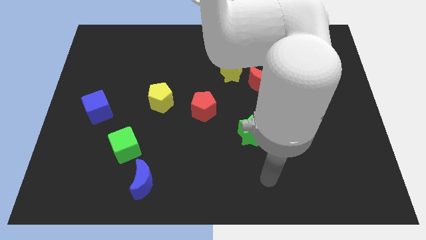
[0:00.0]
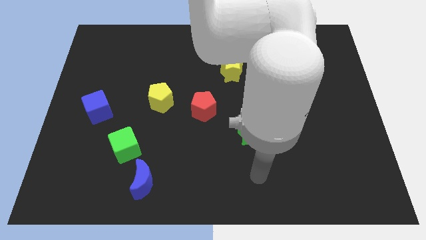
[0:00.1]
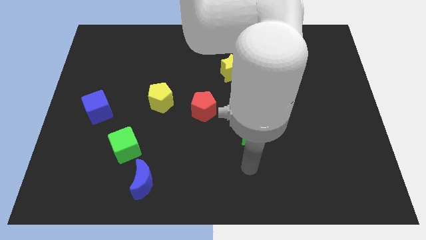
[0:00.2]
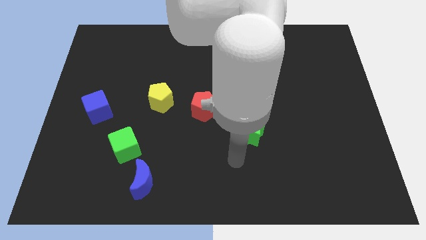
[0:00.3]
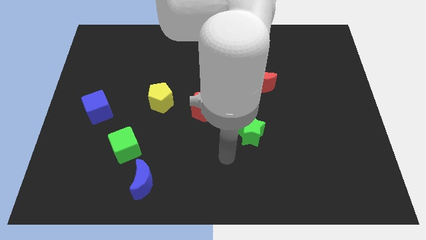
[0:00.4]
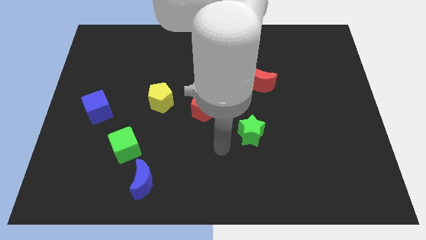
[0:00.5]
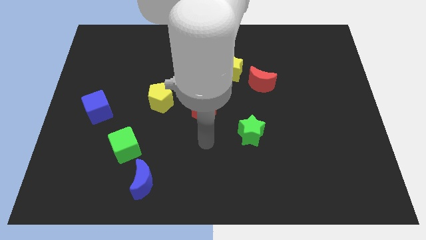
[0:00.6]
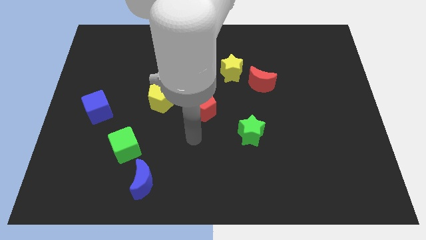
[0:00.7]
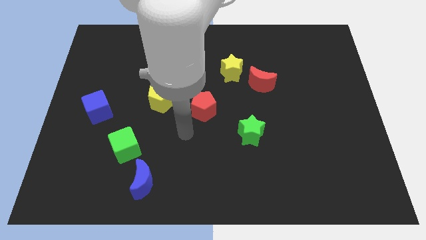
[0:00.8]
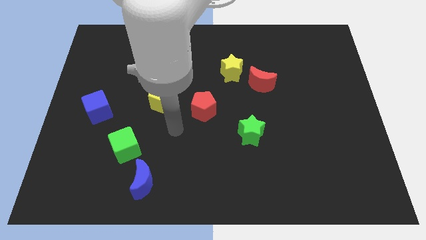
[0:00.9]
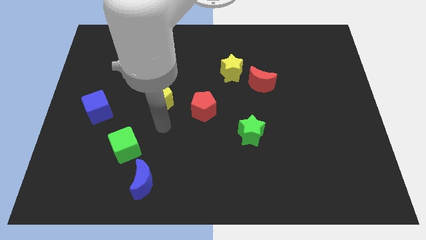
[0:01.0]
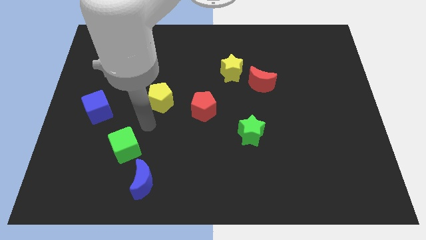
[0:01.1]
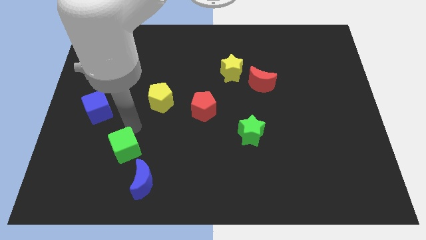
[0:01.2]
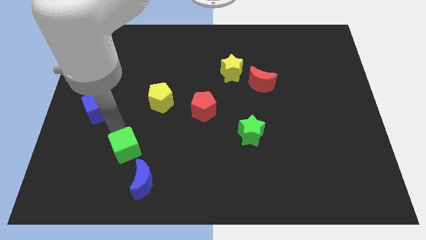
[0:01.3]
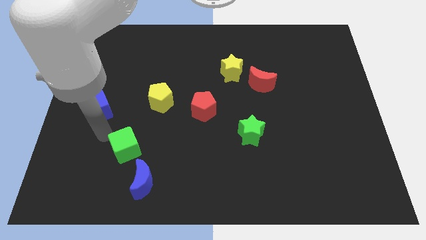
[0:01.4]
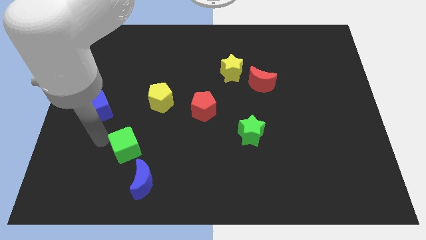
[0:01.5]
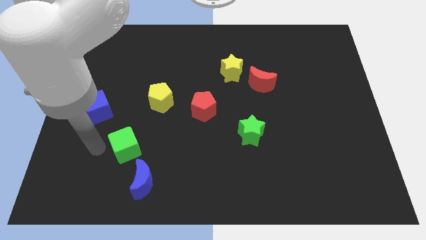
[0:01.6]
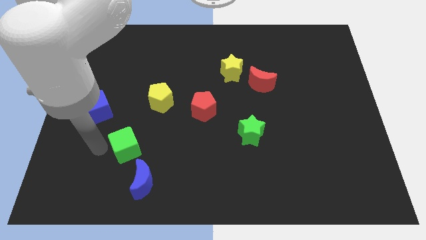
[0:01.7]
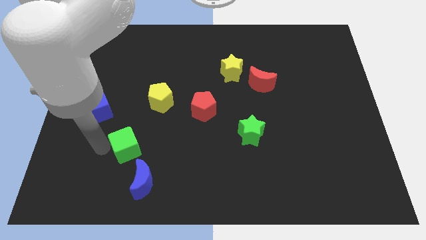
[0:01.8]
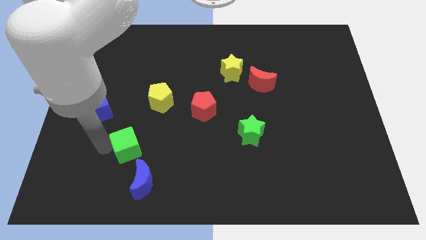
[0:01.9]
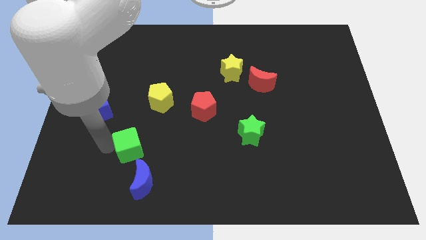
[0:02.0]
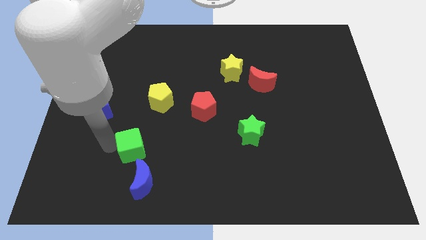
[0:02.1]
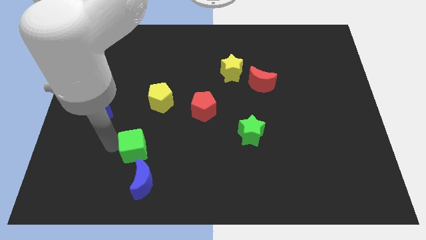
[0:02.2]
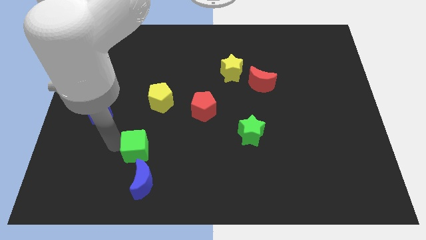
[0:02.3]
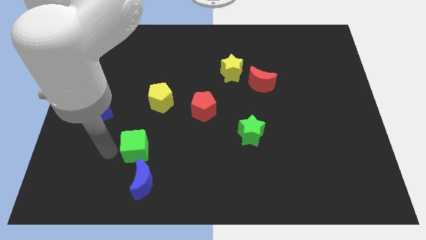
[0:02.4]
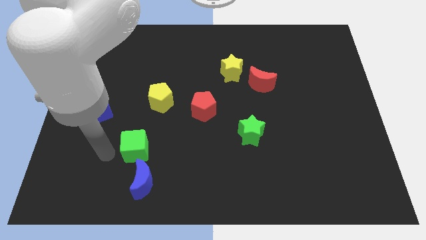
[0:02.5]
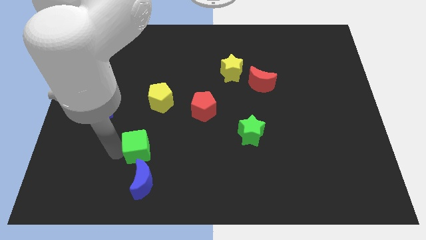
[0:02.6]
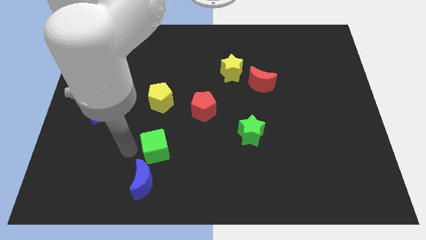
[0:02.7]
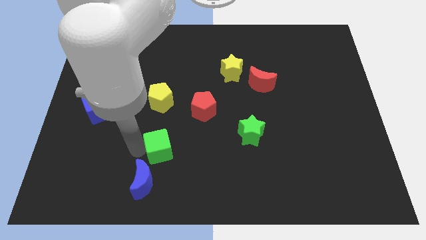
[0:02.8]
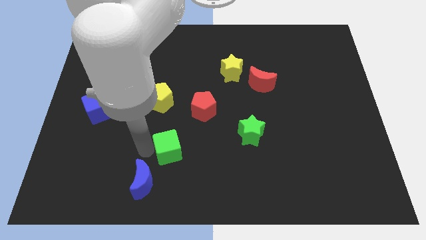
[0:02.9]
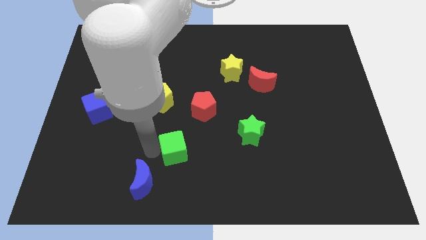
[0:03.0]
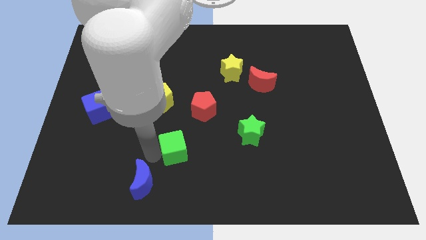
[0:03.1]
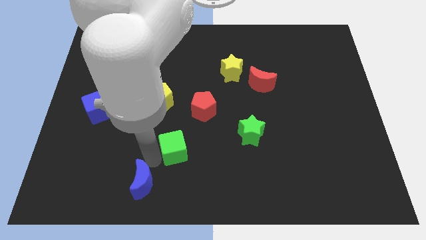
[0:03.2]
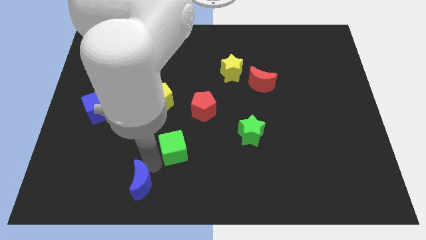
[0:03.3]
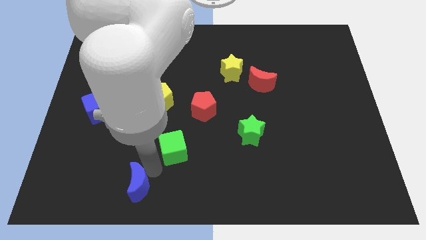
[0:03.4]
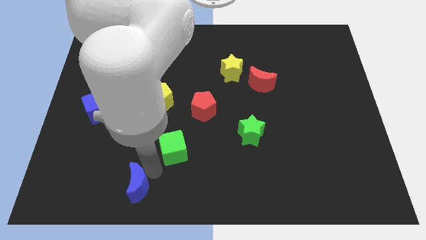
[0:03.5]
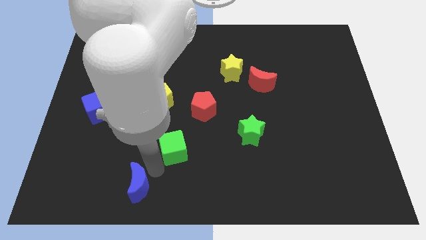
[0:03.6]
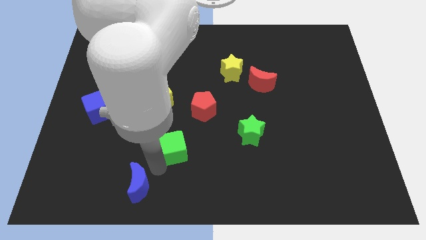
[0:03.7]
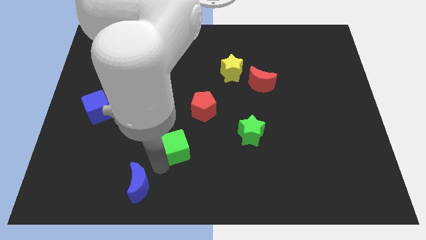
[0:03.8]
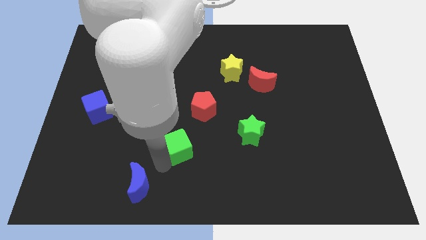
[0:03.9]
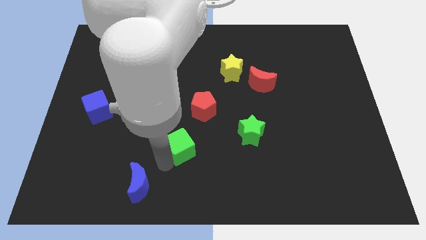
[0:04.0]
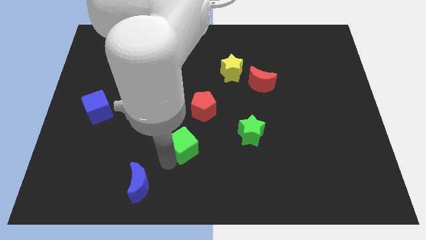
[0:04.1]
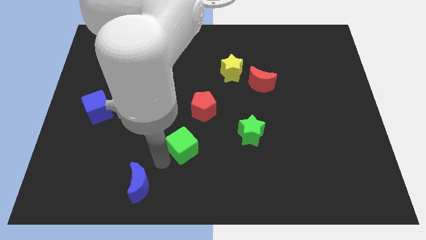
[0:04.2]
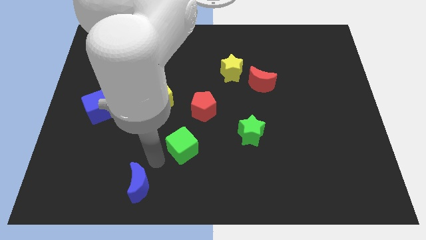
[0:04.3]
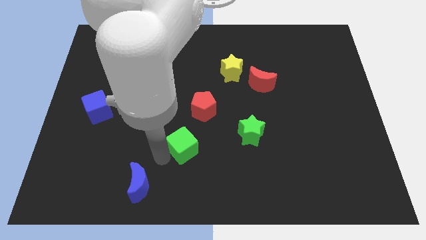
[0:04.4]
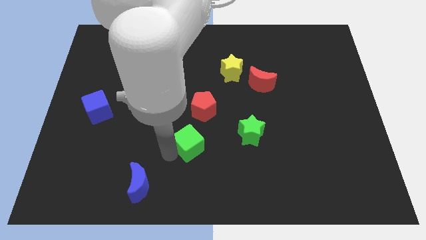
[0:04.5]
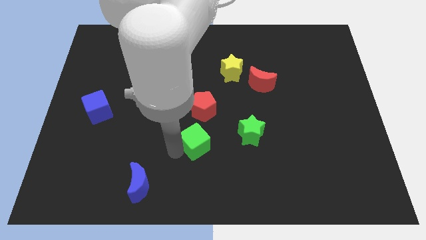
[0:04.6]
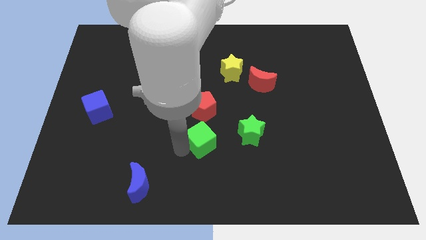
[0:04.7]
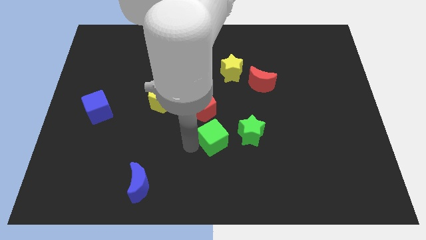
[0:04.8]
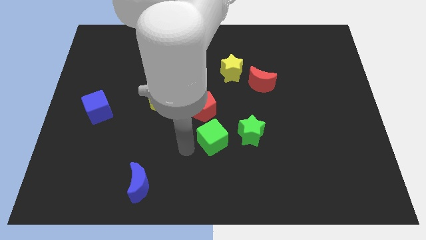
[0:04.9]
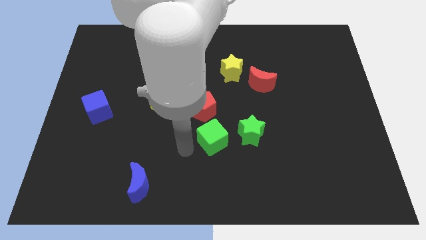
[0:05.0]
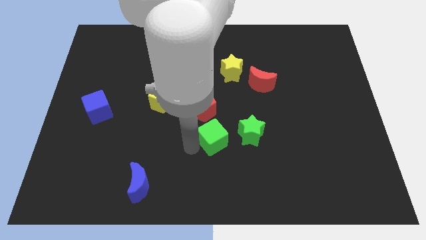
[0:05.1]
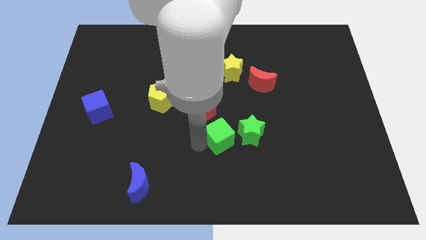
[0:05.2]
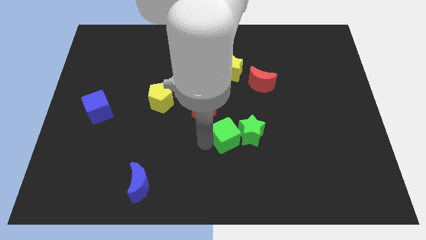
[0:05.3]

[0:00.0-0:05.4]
put the green cube towards the green star

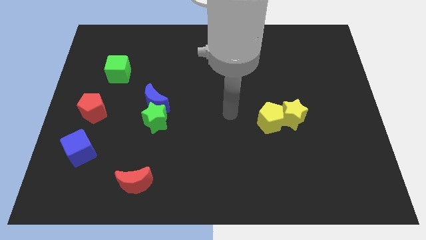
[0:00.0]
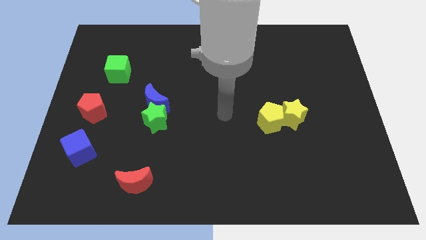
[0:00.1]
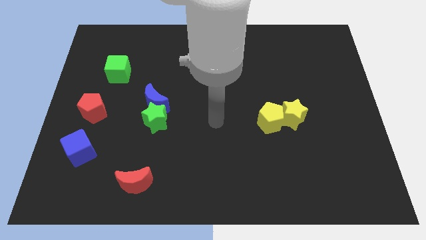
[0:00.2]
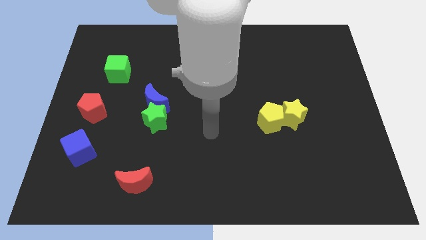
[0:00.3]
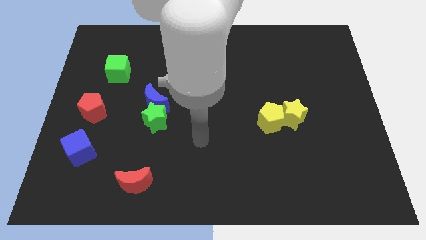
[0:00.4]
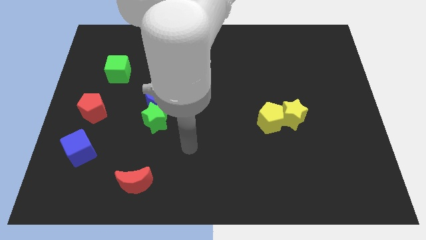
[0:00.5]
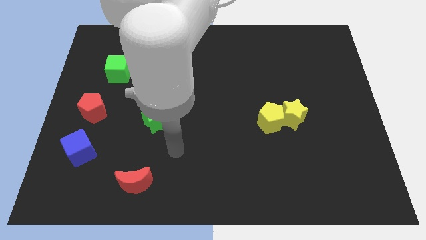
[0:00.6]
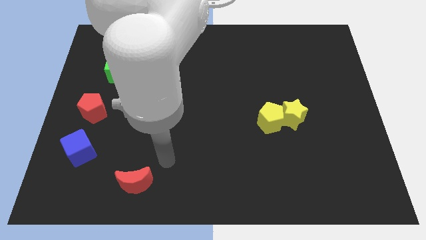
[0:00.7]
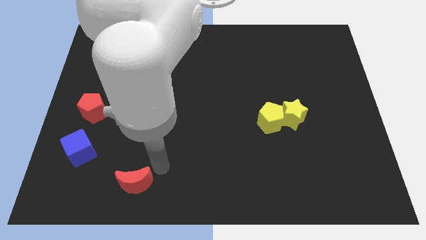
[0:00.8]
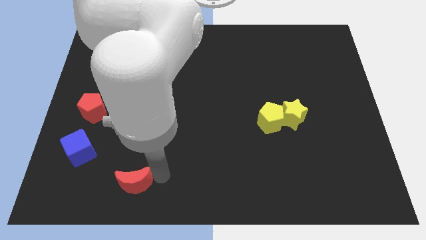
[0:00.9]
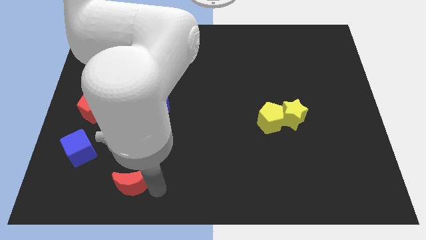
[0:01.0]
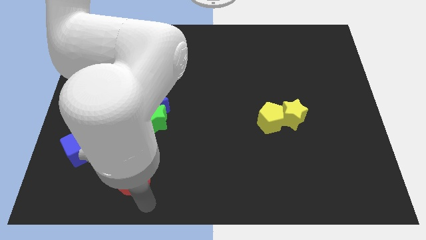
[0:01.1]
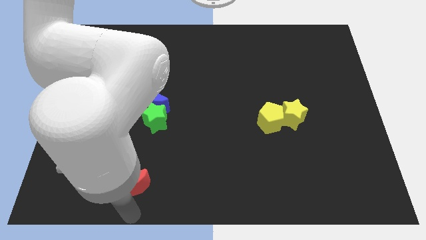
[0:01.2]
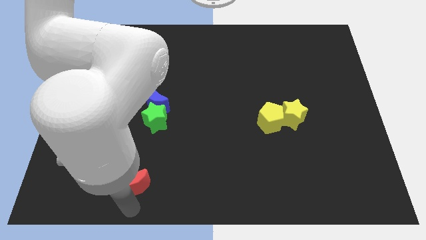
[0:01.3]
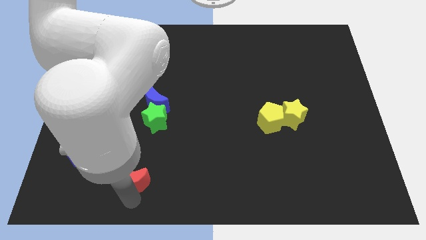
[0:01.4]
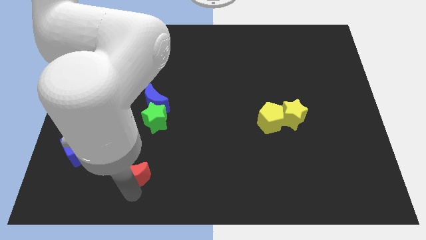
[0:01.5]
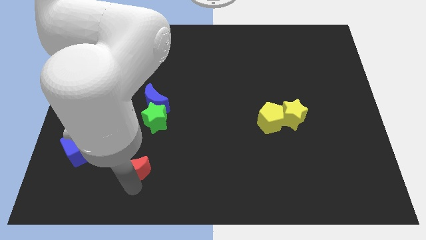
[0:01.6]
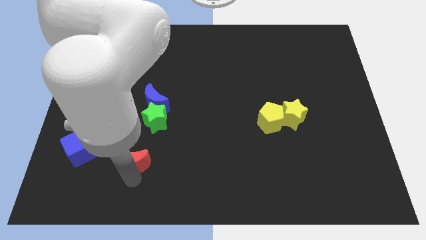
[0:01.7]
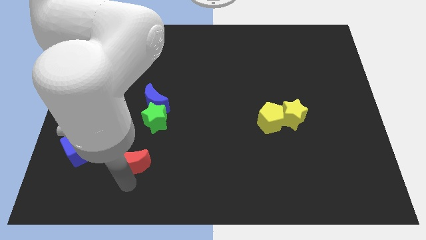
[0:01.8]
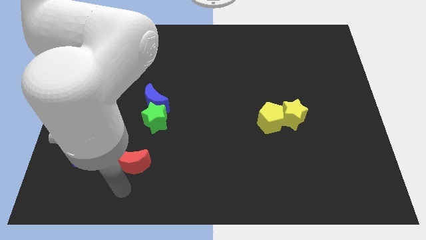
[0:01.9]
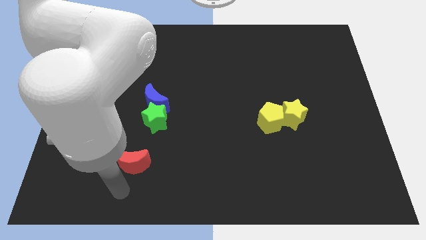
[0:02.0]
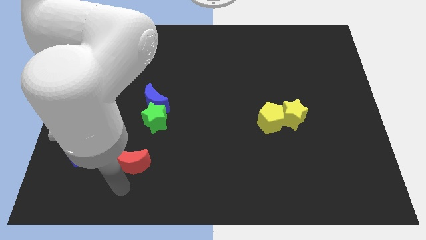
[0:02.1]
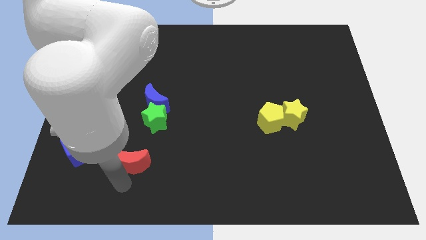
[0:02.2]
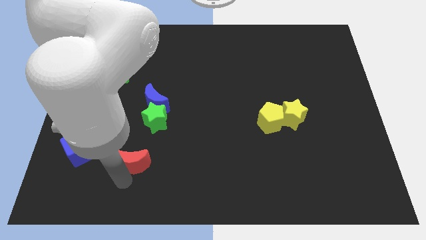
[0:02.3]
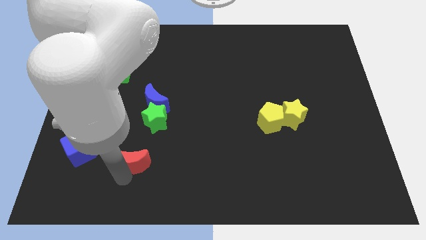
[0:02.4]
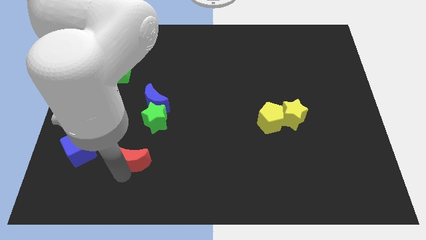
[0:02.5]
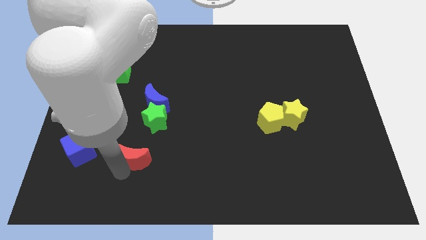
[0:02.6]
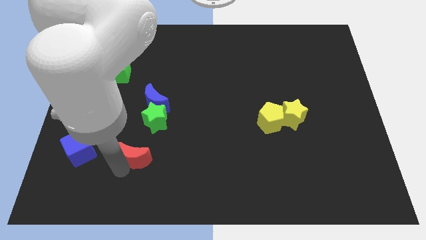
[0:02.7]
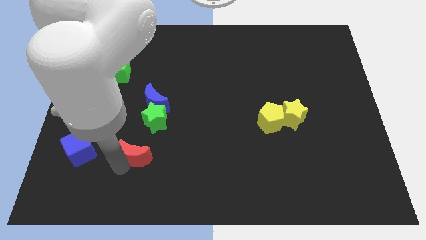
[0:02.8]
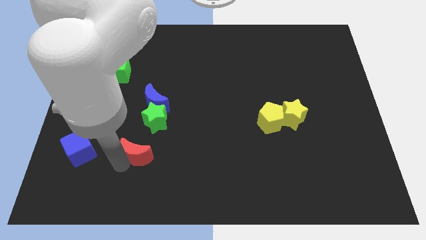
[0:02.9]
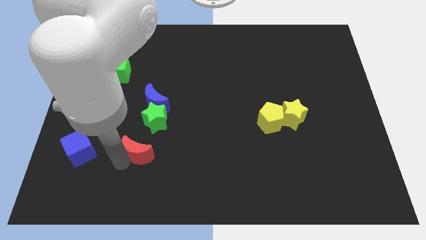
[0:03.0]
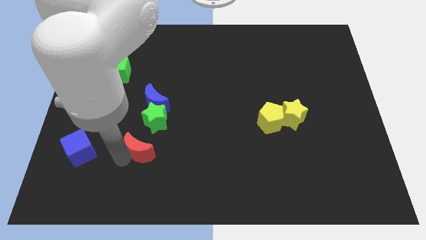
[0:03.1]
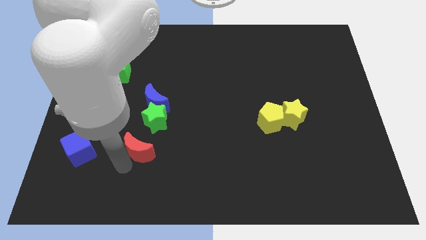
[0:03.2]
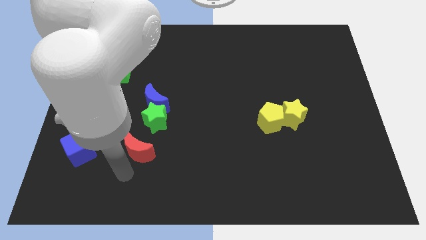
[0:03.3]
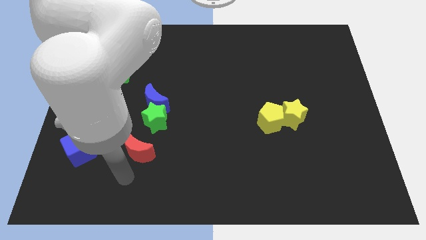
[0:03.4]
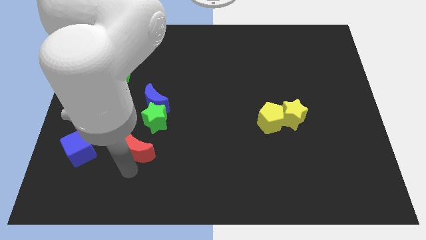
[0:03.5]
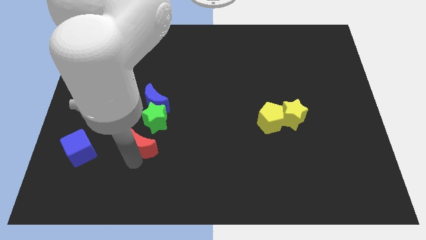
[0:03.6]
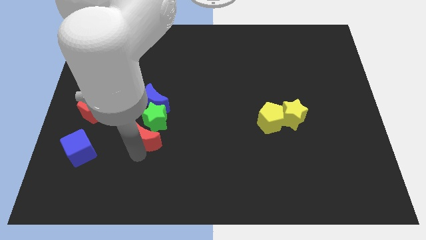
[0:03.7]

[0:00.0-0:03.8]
move the red moon to the green star
